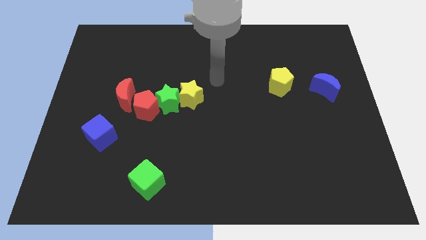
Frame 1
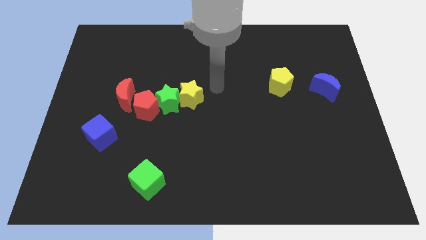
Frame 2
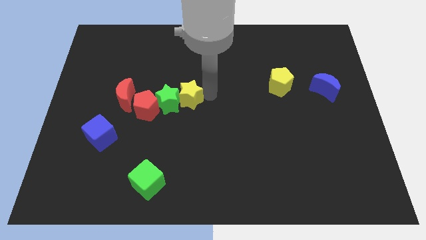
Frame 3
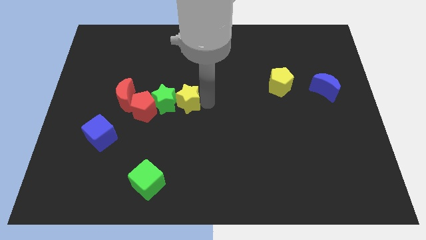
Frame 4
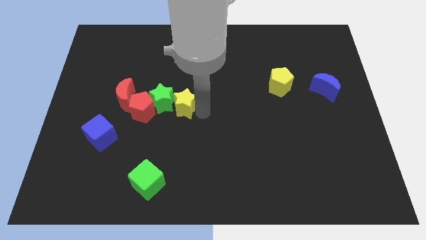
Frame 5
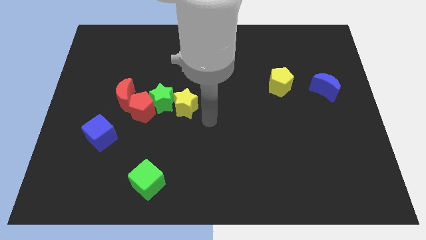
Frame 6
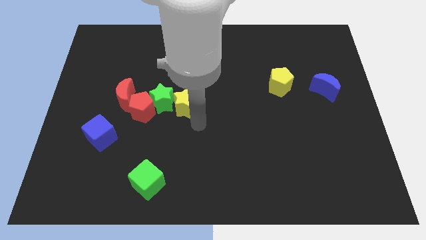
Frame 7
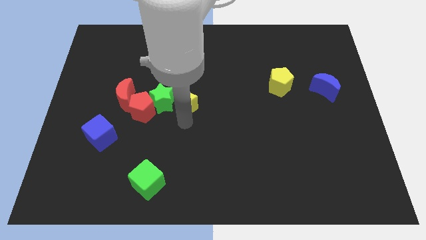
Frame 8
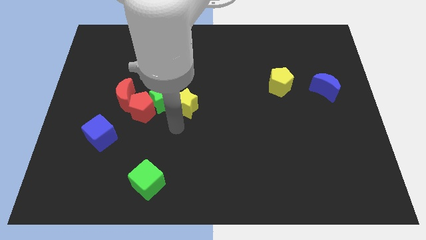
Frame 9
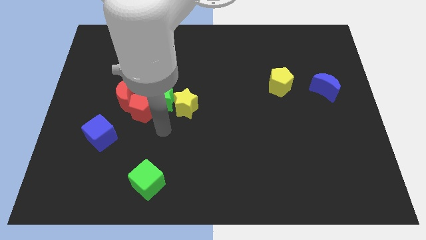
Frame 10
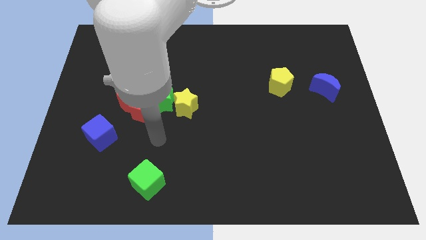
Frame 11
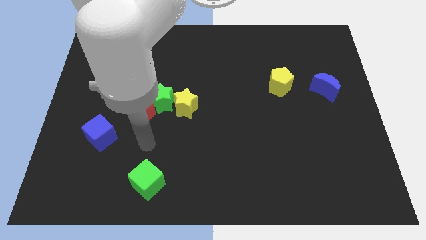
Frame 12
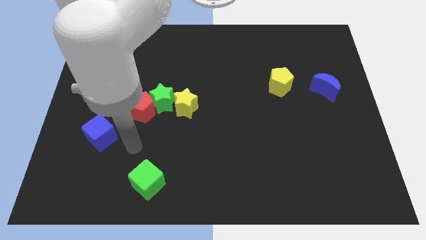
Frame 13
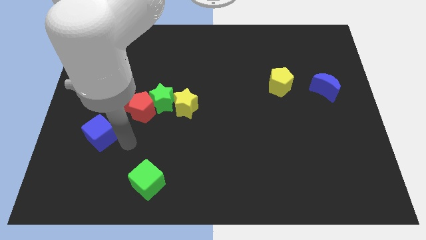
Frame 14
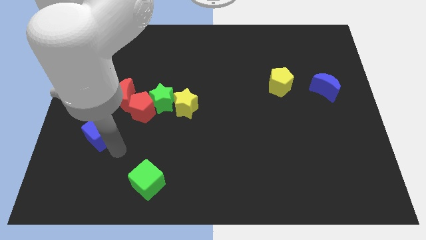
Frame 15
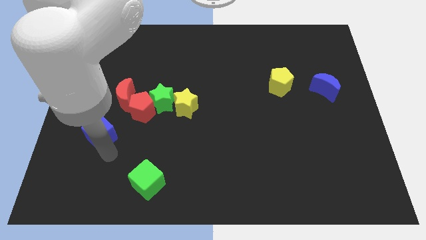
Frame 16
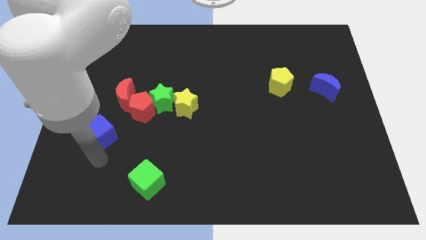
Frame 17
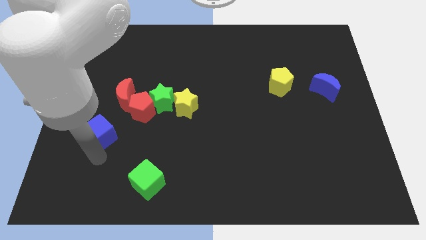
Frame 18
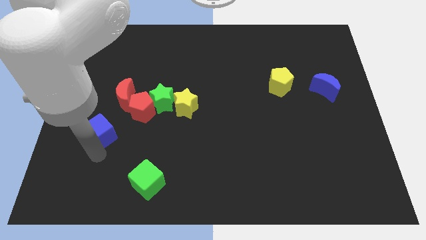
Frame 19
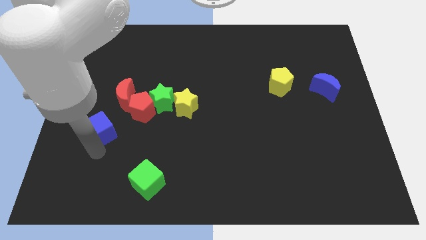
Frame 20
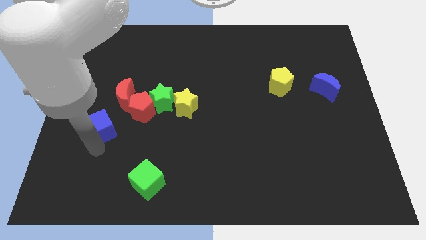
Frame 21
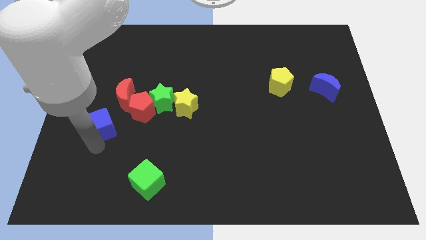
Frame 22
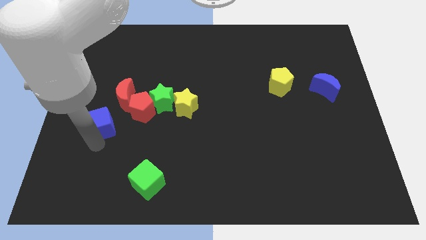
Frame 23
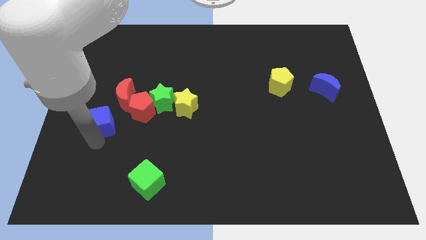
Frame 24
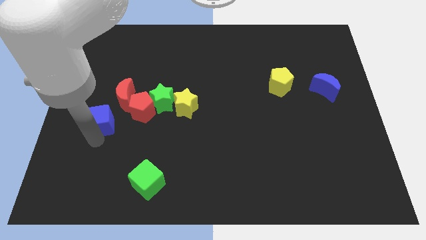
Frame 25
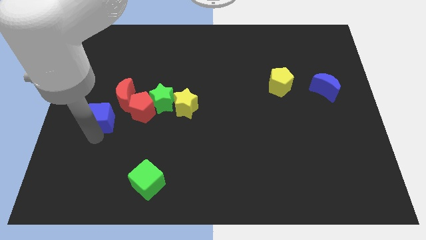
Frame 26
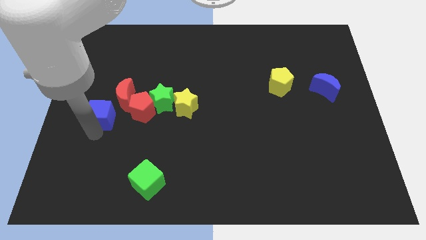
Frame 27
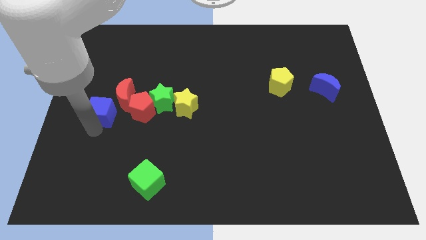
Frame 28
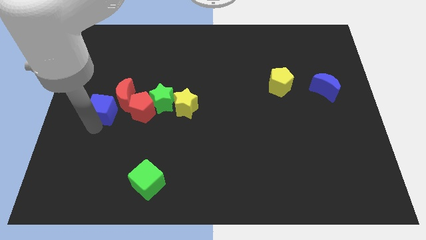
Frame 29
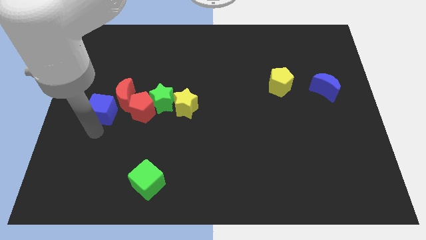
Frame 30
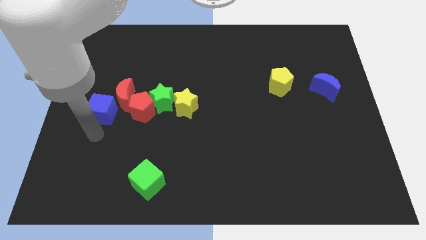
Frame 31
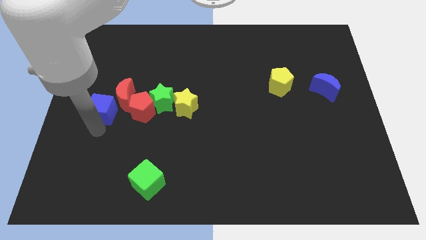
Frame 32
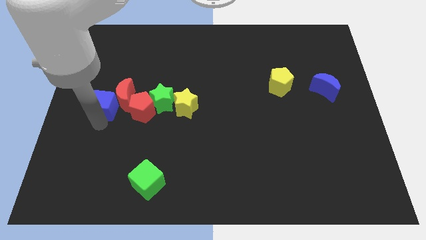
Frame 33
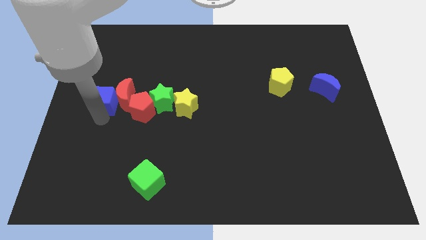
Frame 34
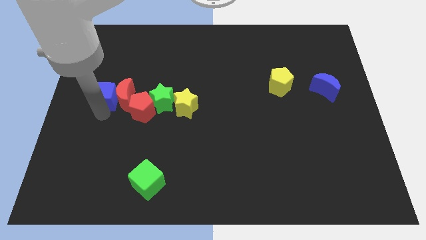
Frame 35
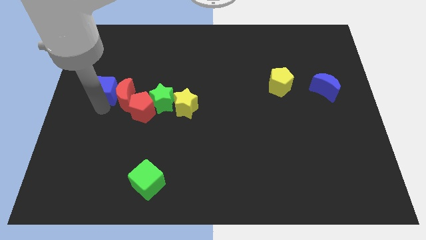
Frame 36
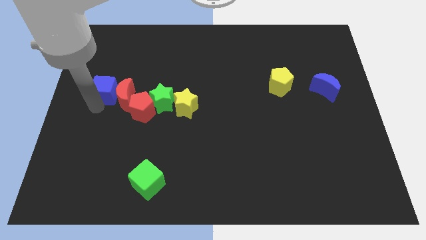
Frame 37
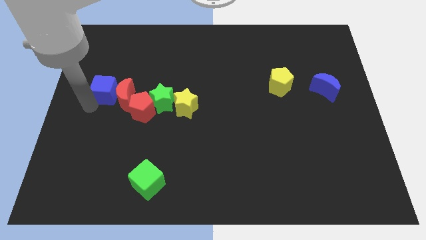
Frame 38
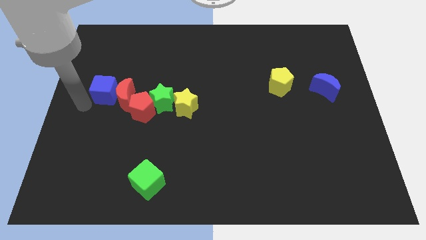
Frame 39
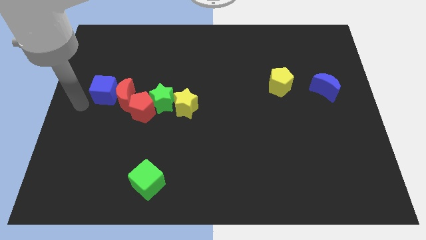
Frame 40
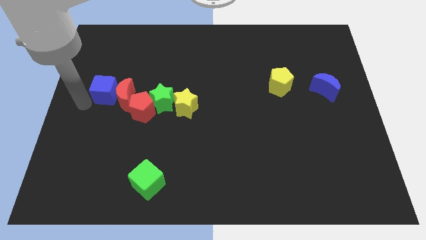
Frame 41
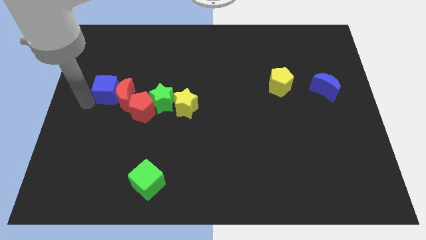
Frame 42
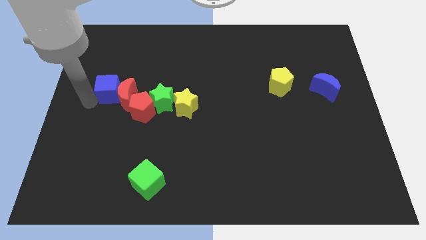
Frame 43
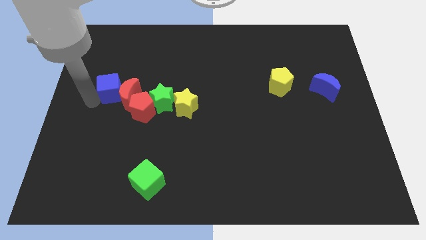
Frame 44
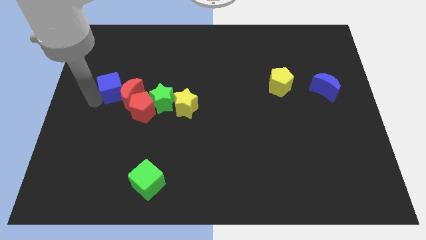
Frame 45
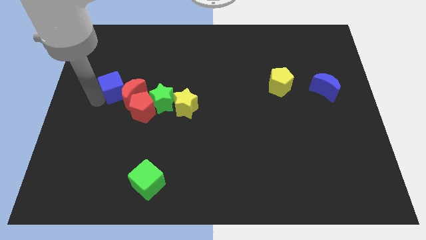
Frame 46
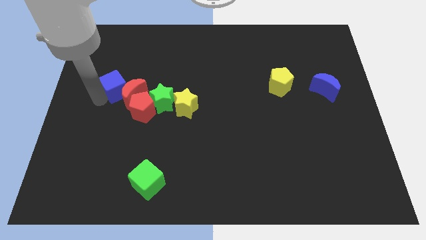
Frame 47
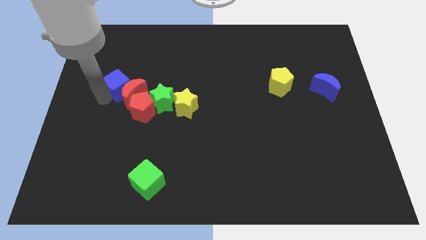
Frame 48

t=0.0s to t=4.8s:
move the blue cube a little bit diagonally upwards and to the right

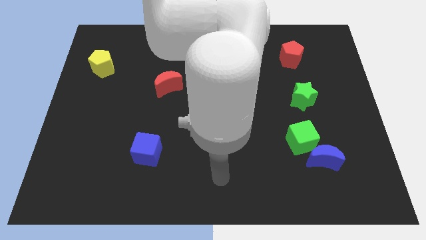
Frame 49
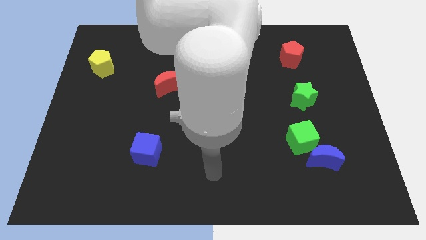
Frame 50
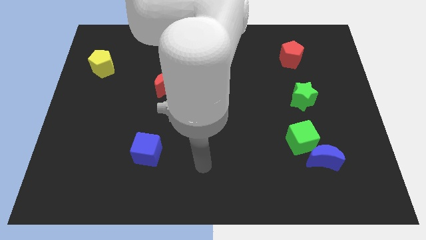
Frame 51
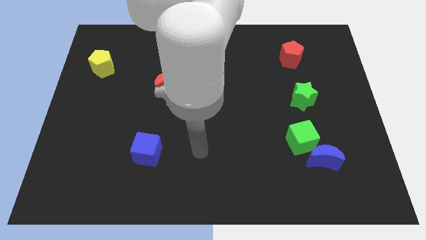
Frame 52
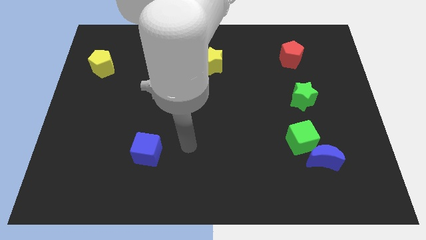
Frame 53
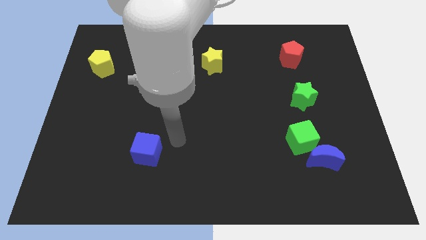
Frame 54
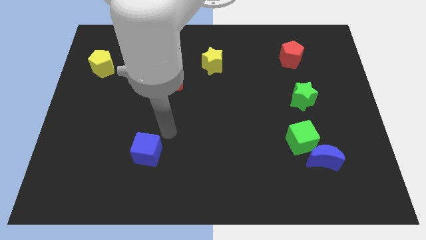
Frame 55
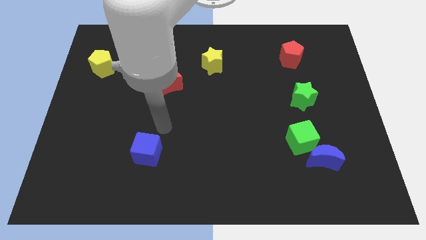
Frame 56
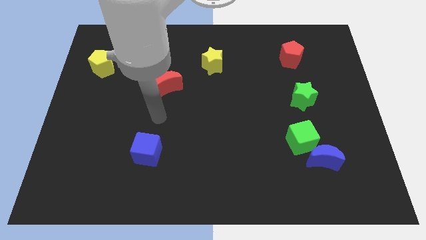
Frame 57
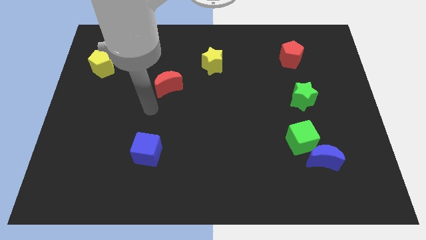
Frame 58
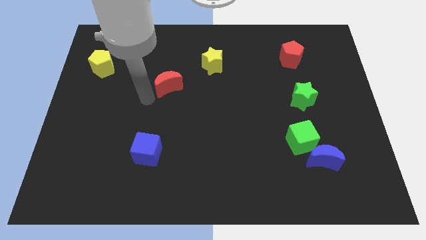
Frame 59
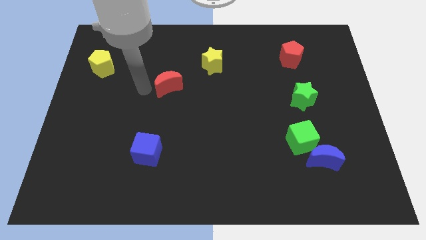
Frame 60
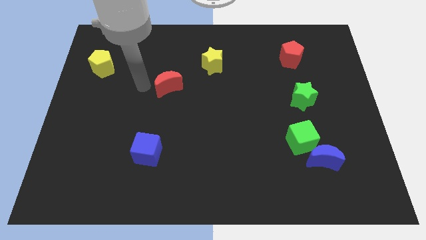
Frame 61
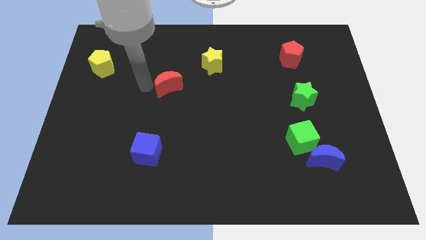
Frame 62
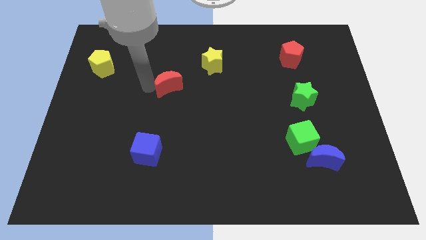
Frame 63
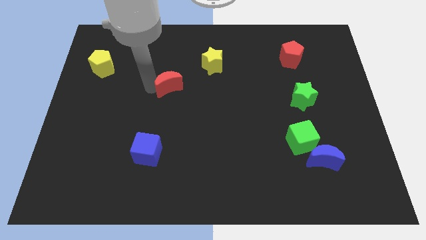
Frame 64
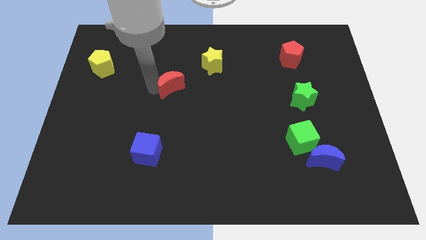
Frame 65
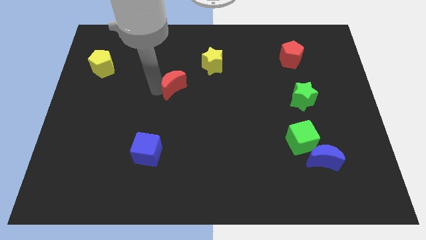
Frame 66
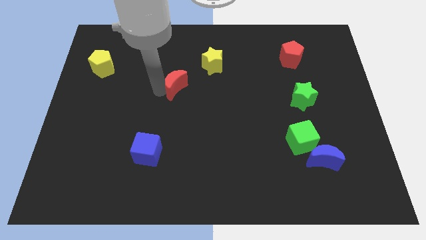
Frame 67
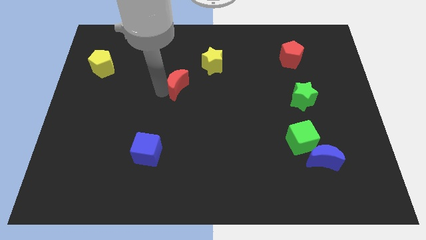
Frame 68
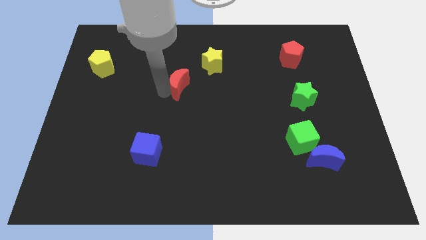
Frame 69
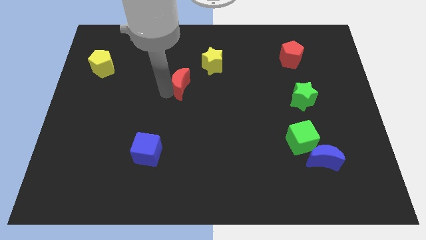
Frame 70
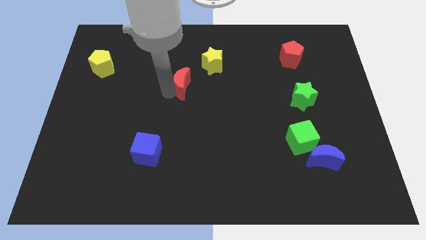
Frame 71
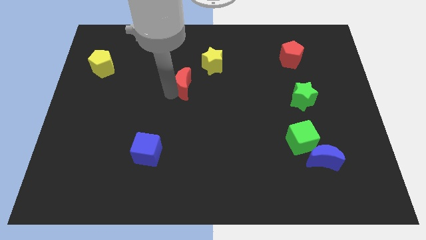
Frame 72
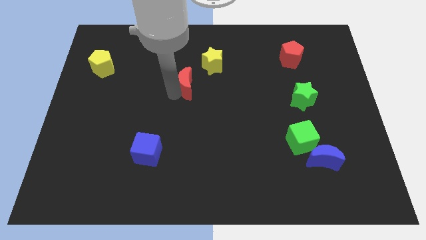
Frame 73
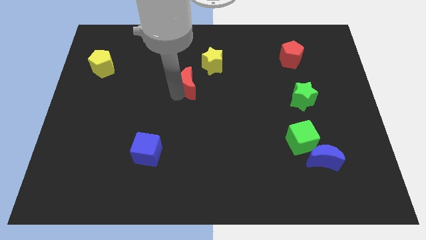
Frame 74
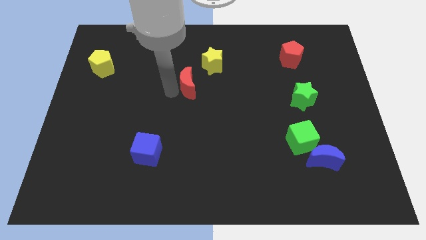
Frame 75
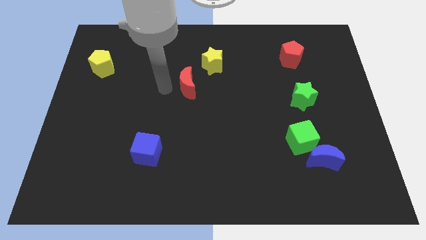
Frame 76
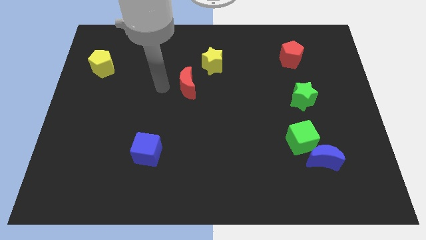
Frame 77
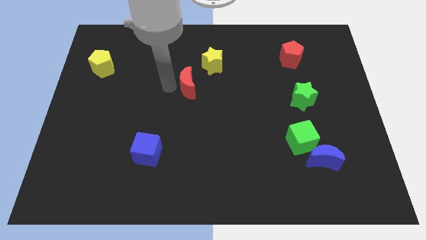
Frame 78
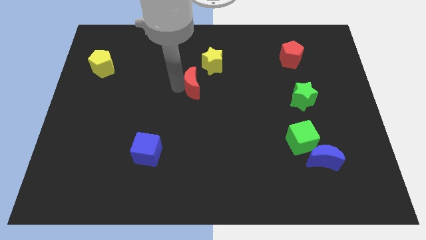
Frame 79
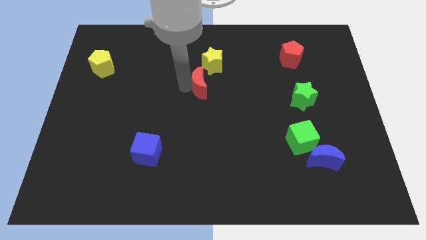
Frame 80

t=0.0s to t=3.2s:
slightly push the red moon right

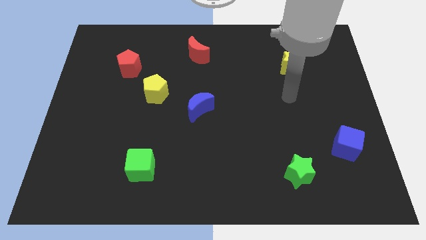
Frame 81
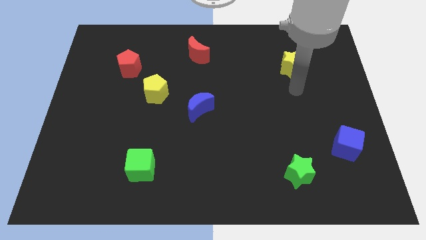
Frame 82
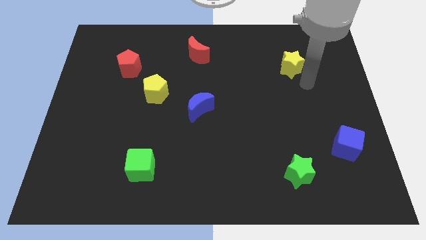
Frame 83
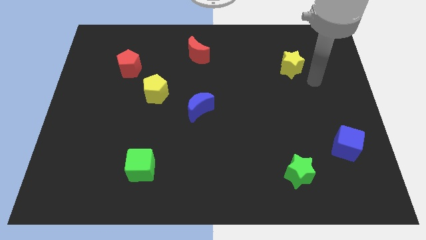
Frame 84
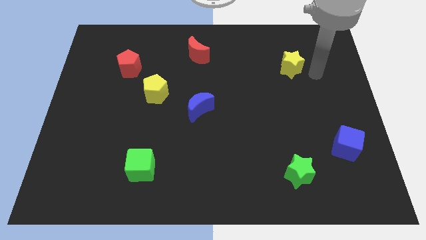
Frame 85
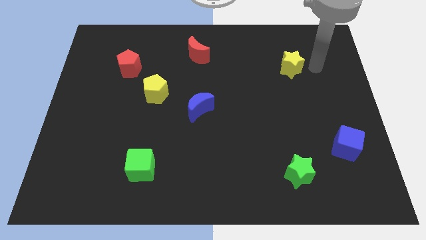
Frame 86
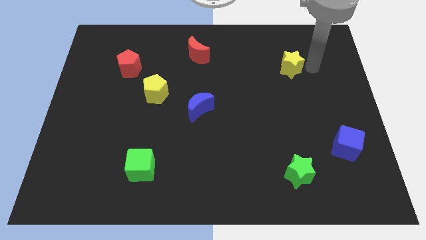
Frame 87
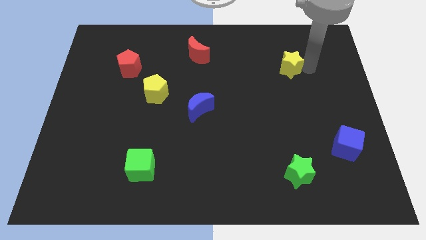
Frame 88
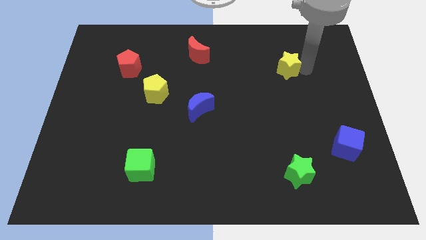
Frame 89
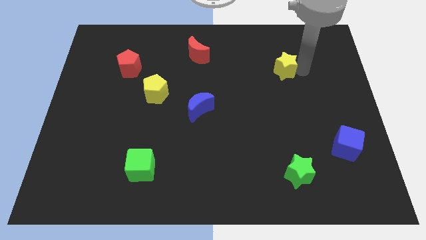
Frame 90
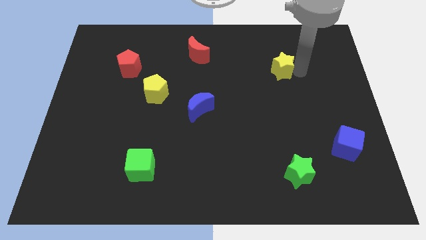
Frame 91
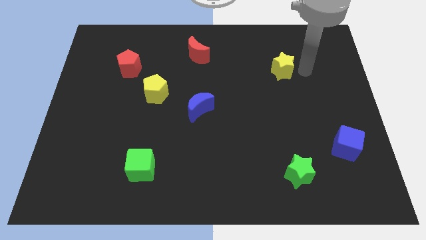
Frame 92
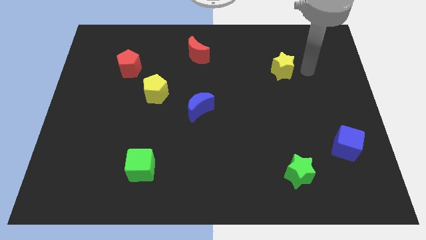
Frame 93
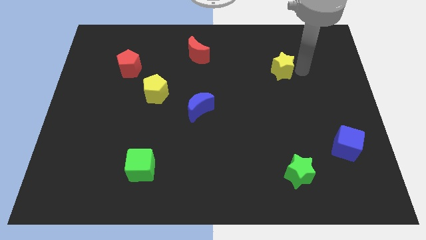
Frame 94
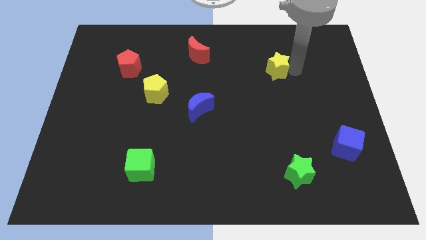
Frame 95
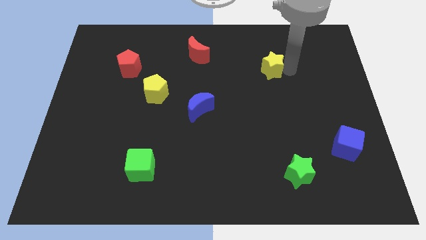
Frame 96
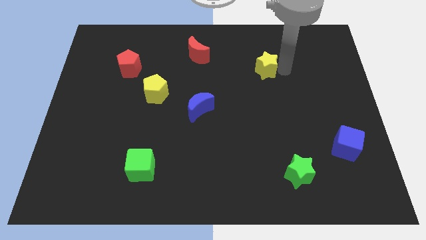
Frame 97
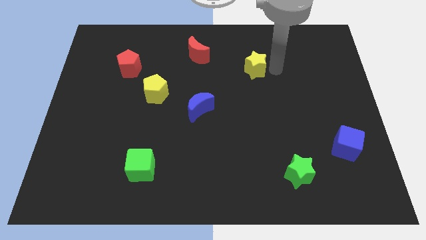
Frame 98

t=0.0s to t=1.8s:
slide the yellow star left a bit
